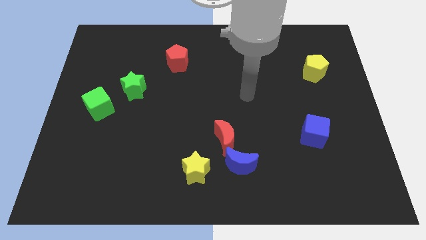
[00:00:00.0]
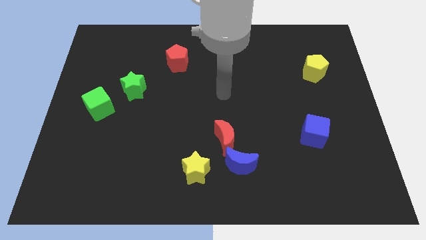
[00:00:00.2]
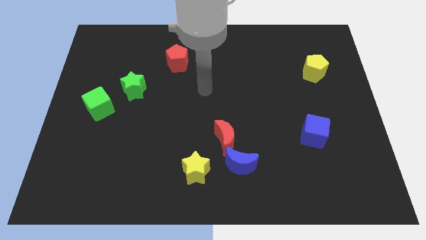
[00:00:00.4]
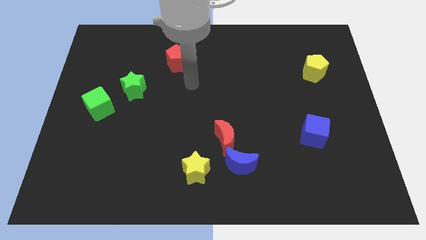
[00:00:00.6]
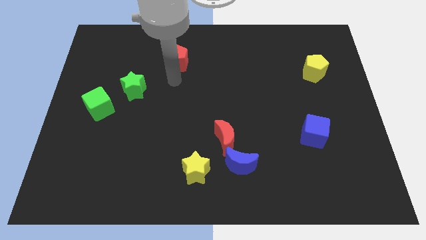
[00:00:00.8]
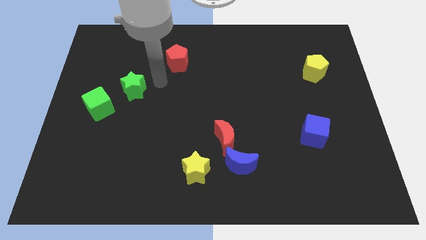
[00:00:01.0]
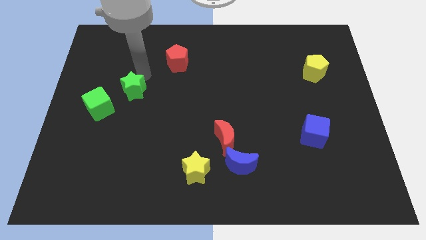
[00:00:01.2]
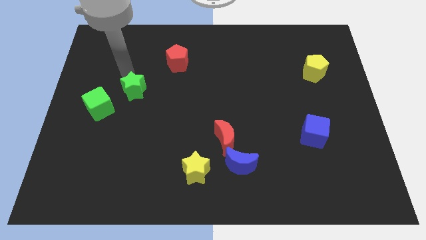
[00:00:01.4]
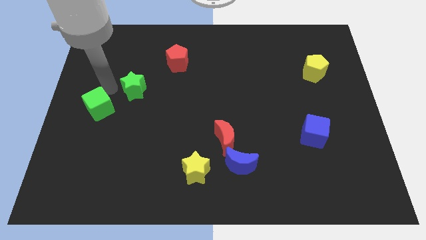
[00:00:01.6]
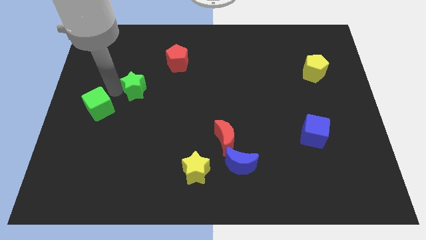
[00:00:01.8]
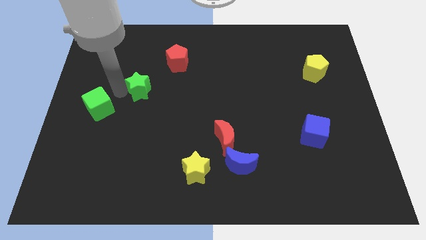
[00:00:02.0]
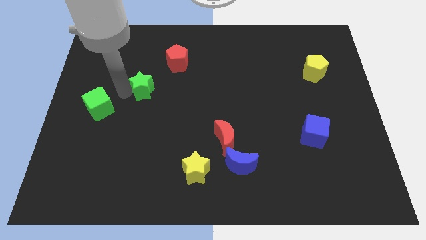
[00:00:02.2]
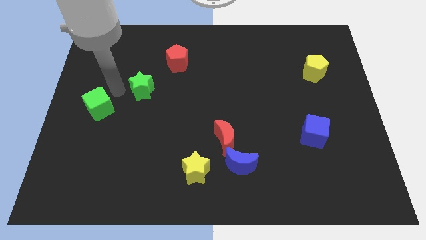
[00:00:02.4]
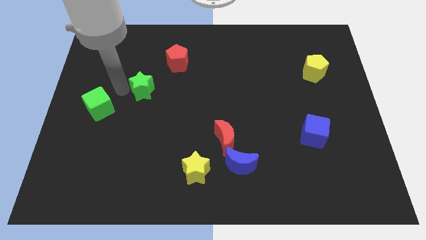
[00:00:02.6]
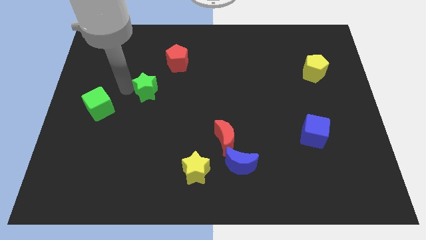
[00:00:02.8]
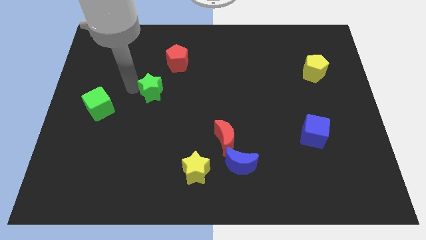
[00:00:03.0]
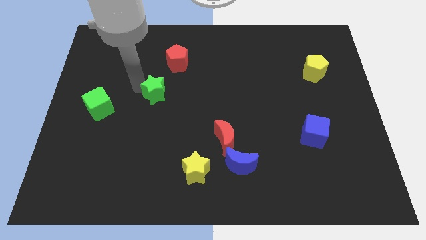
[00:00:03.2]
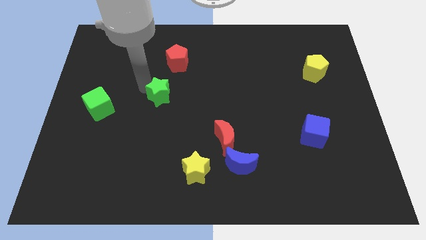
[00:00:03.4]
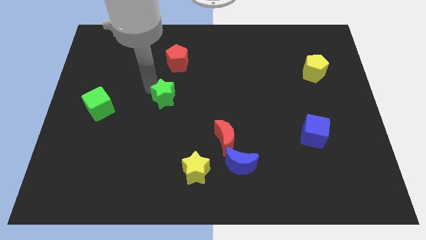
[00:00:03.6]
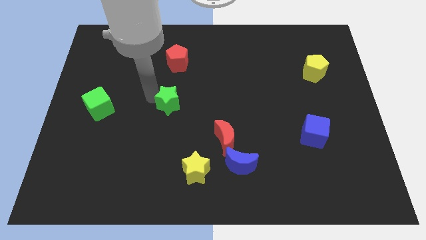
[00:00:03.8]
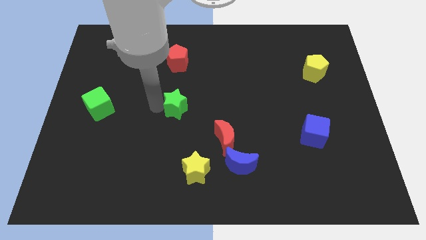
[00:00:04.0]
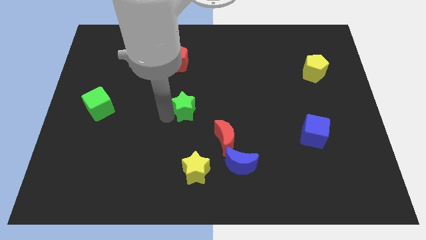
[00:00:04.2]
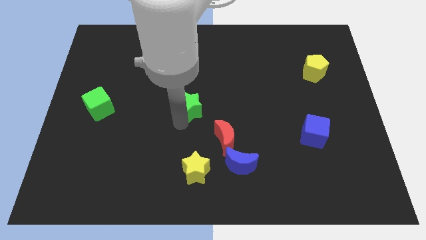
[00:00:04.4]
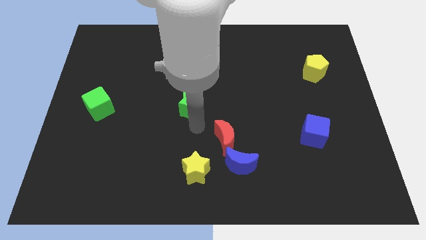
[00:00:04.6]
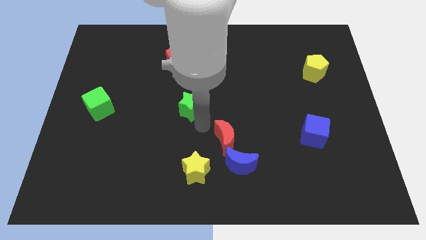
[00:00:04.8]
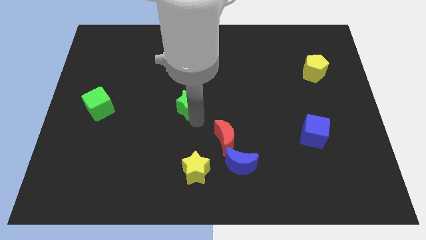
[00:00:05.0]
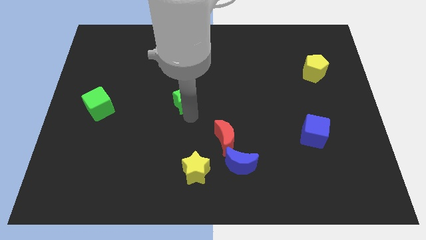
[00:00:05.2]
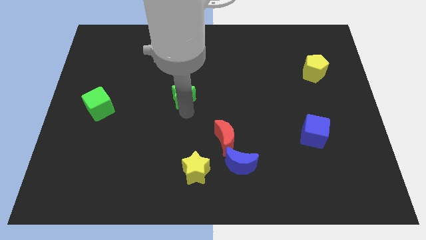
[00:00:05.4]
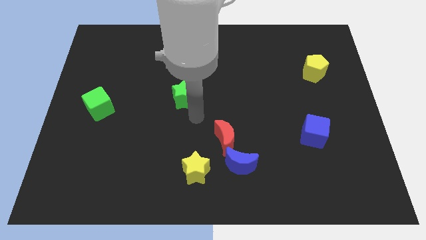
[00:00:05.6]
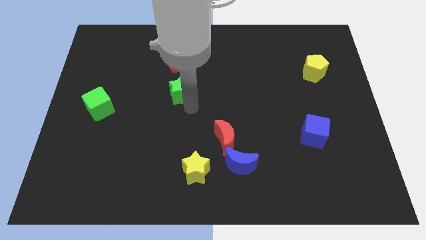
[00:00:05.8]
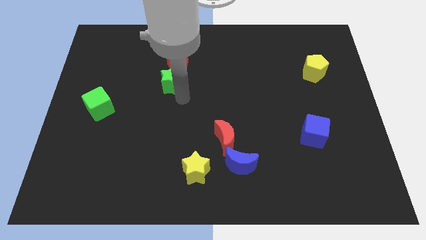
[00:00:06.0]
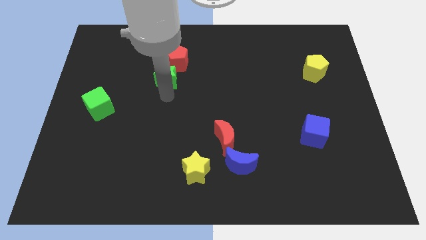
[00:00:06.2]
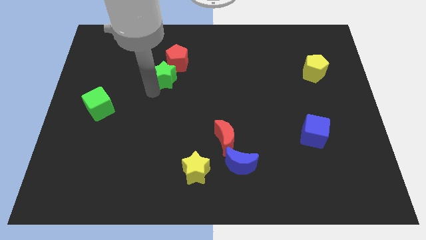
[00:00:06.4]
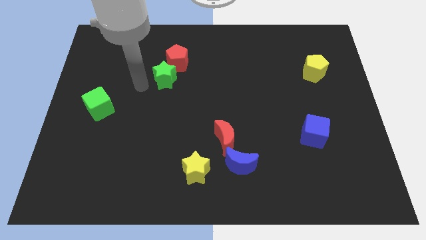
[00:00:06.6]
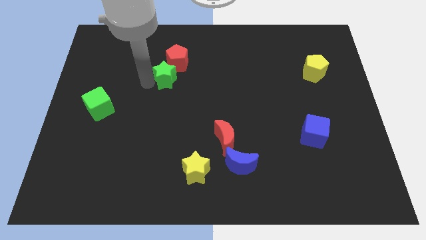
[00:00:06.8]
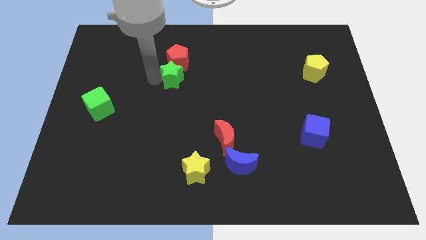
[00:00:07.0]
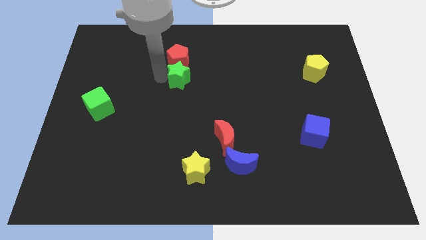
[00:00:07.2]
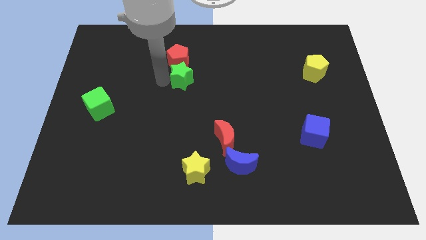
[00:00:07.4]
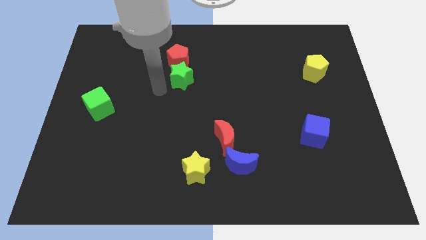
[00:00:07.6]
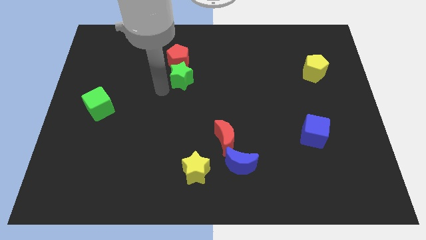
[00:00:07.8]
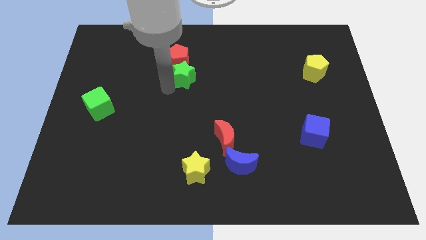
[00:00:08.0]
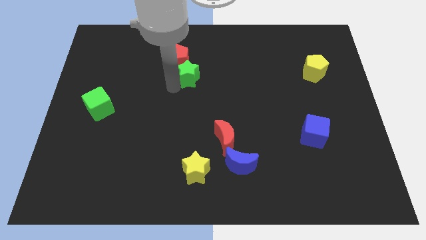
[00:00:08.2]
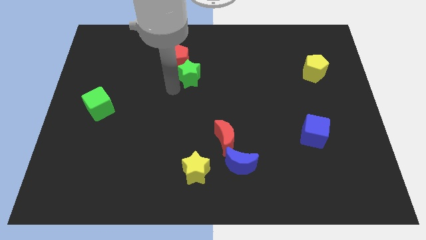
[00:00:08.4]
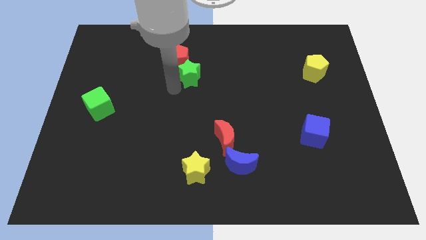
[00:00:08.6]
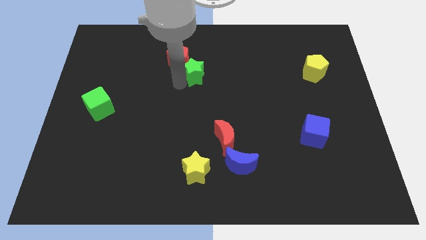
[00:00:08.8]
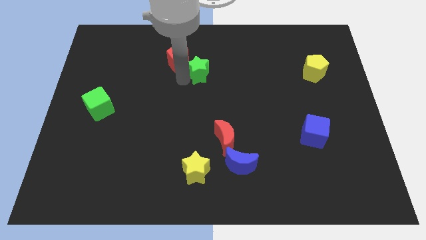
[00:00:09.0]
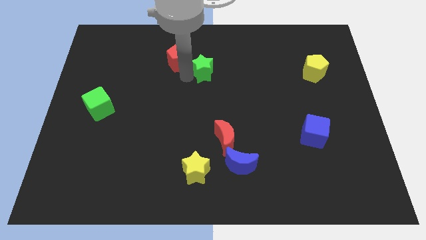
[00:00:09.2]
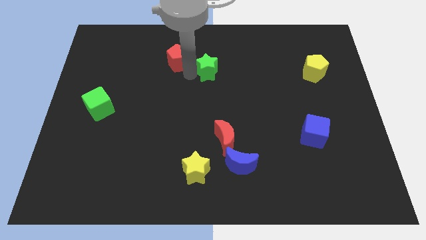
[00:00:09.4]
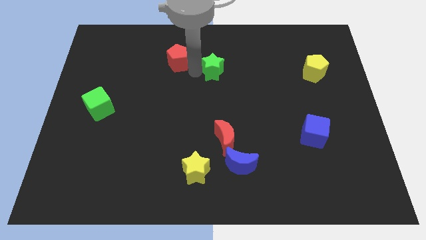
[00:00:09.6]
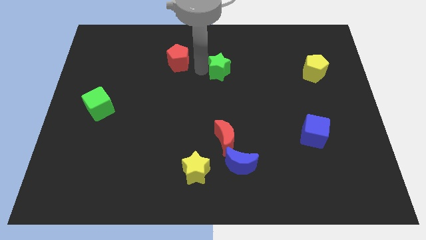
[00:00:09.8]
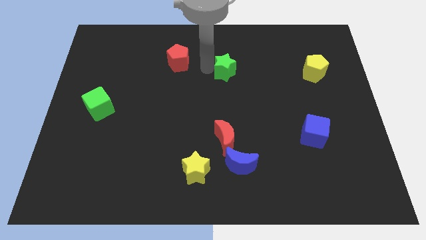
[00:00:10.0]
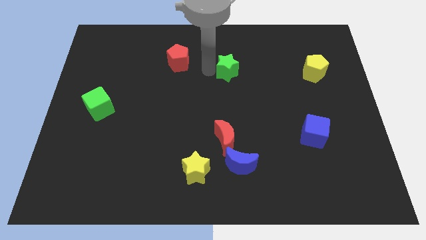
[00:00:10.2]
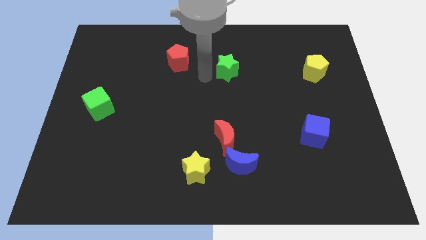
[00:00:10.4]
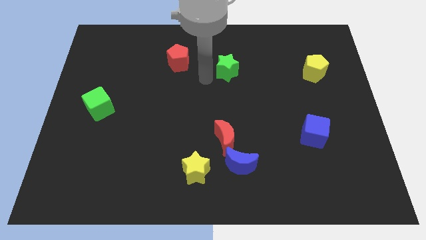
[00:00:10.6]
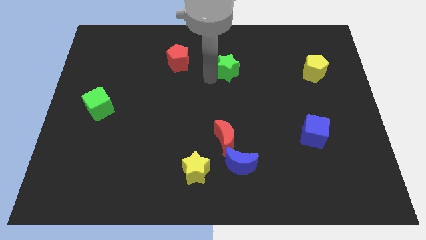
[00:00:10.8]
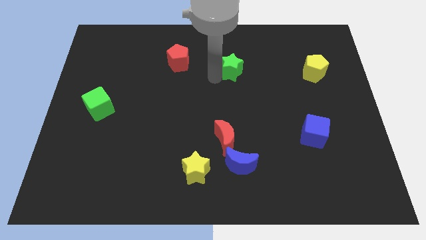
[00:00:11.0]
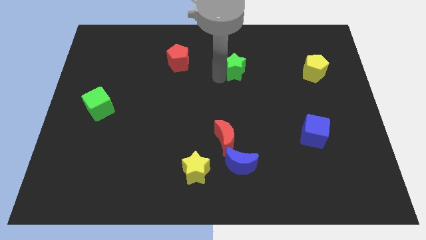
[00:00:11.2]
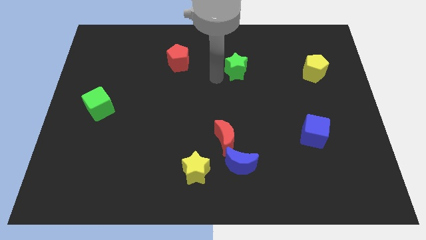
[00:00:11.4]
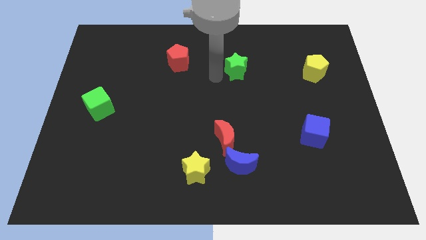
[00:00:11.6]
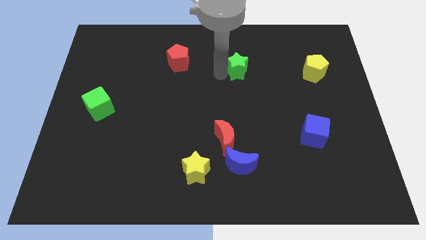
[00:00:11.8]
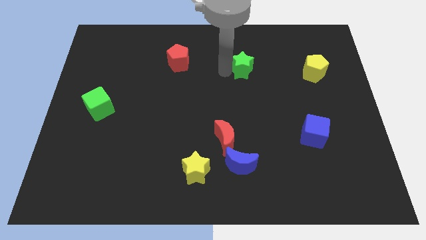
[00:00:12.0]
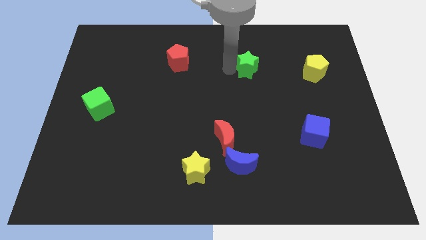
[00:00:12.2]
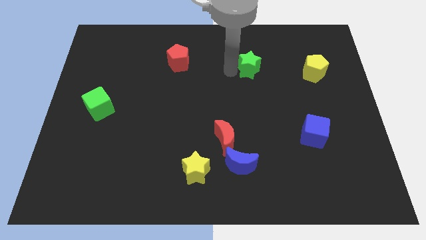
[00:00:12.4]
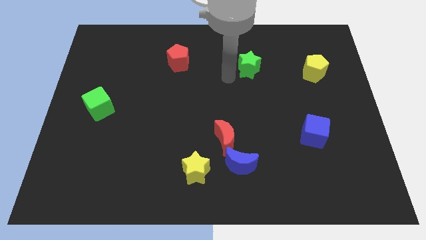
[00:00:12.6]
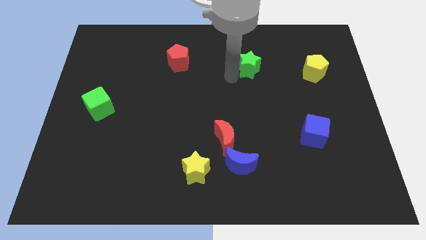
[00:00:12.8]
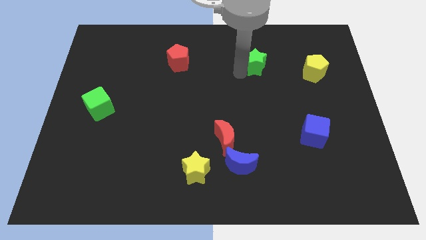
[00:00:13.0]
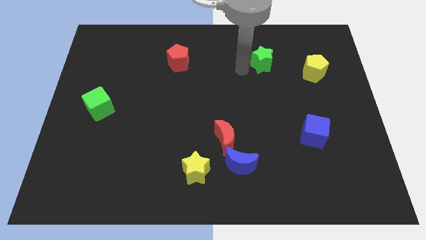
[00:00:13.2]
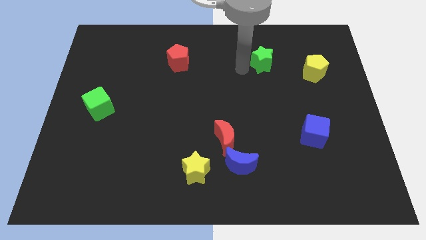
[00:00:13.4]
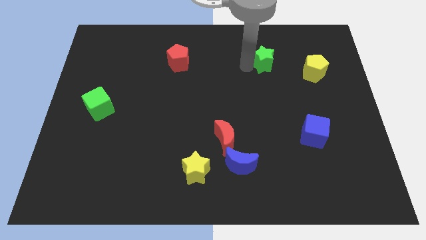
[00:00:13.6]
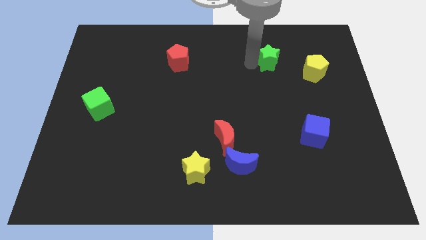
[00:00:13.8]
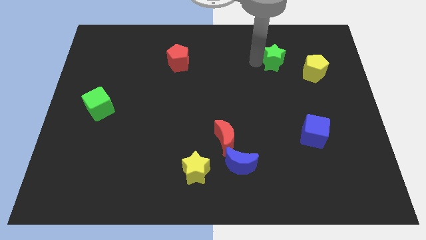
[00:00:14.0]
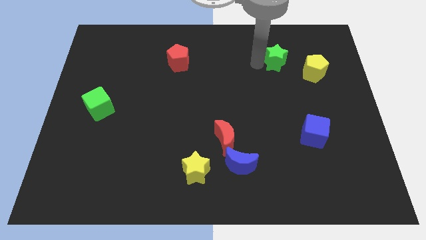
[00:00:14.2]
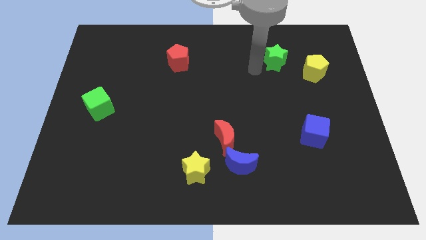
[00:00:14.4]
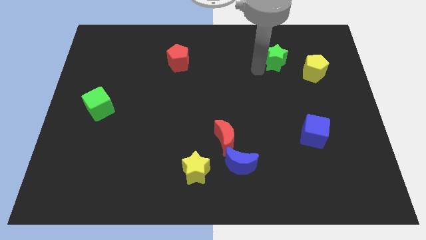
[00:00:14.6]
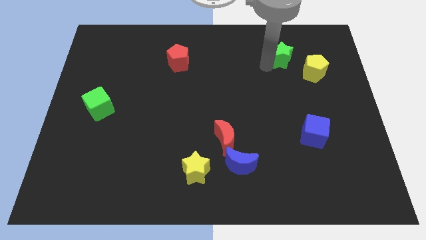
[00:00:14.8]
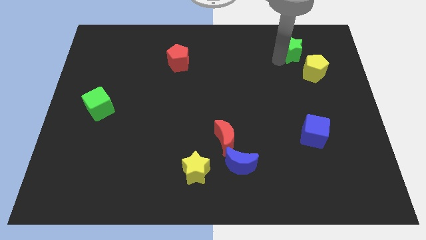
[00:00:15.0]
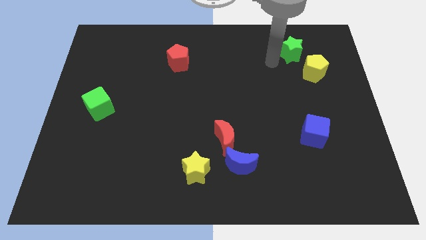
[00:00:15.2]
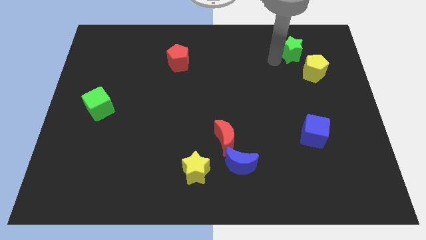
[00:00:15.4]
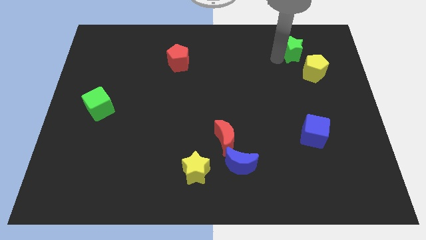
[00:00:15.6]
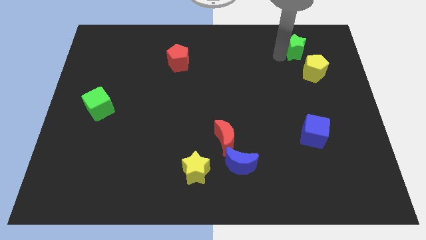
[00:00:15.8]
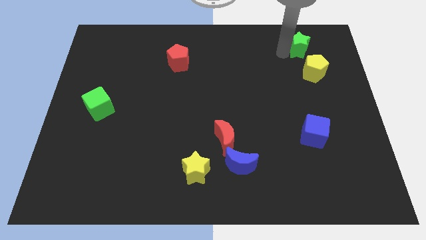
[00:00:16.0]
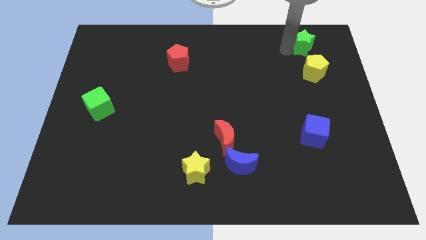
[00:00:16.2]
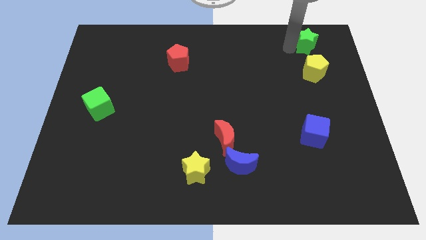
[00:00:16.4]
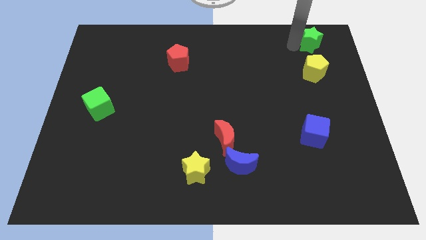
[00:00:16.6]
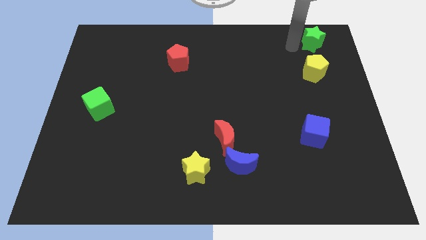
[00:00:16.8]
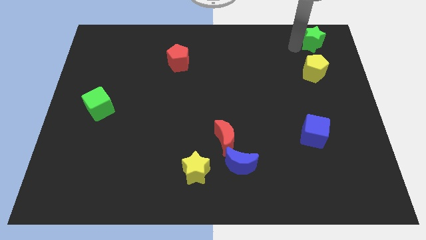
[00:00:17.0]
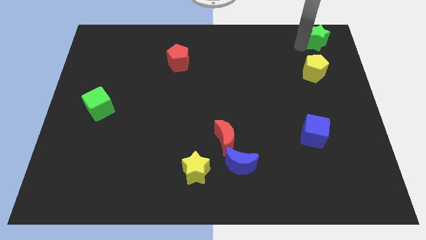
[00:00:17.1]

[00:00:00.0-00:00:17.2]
put the green star to the top right of the board
